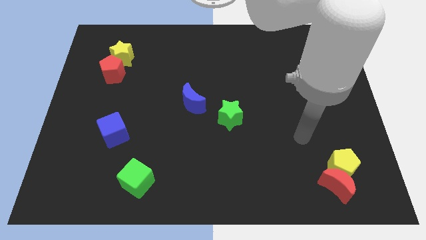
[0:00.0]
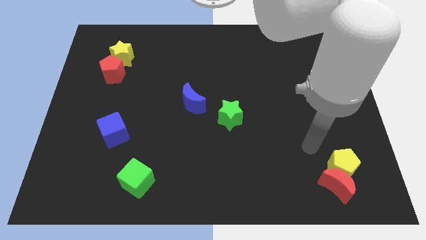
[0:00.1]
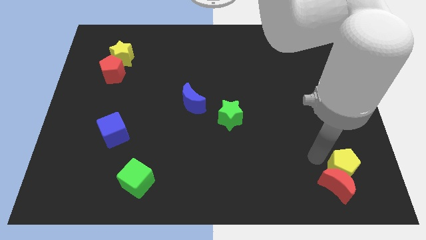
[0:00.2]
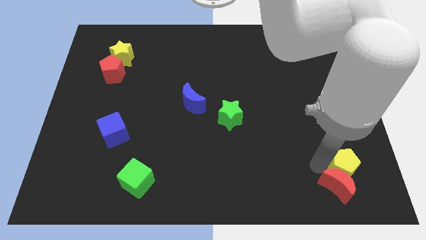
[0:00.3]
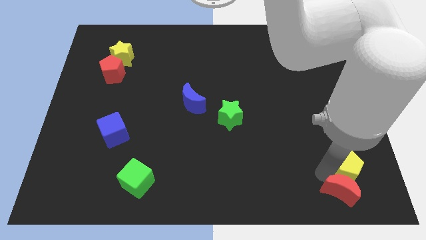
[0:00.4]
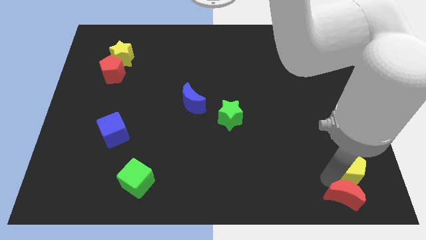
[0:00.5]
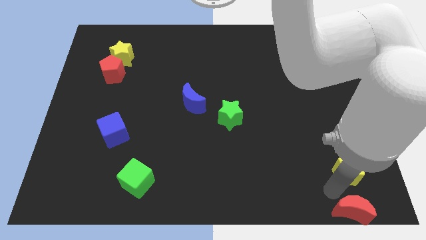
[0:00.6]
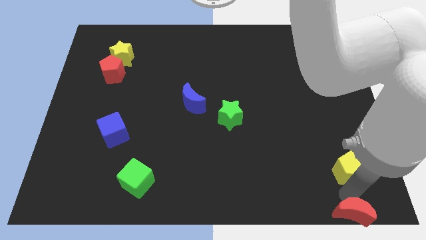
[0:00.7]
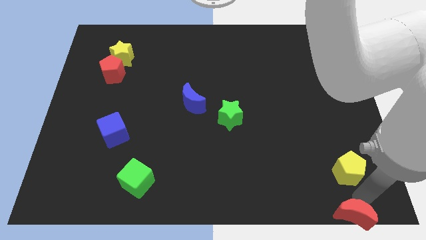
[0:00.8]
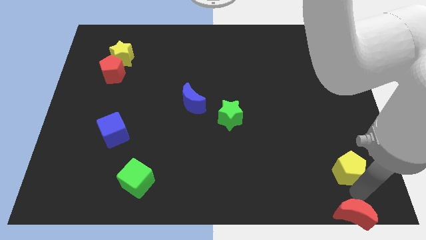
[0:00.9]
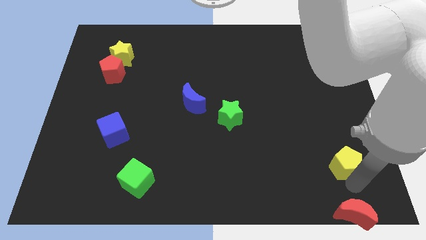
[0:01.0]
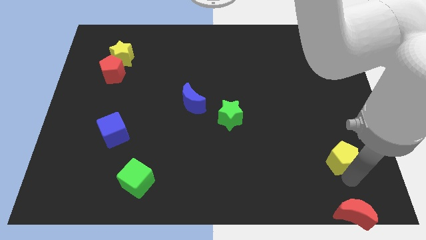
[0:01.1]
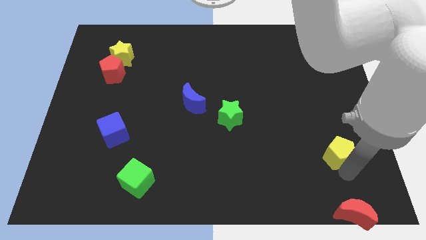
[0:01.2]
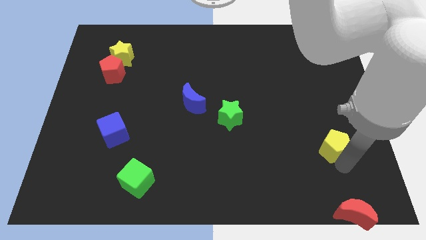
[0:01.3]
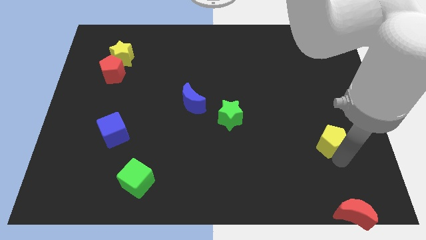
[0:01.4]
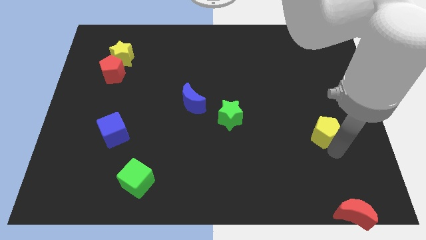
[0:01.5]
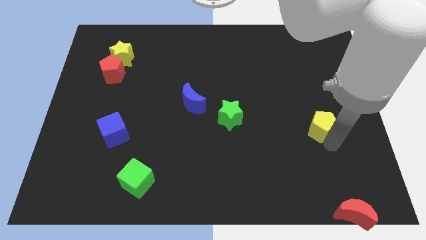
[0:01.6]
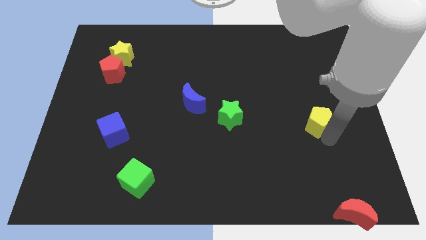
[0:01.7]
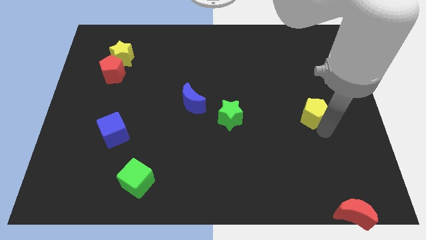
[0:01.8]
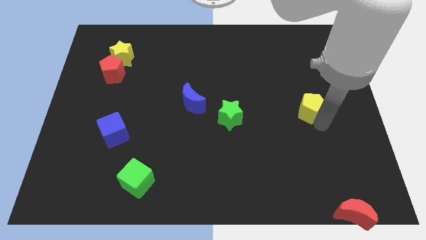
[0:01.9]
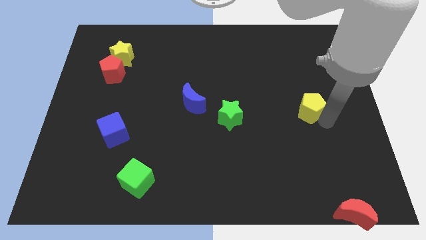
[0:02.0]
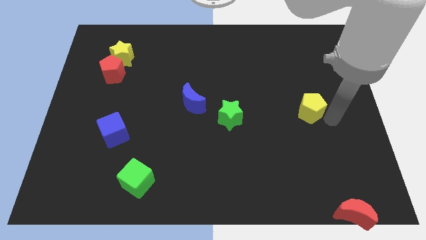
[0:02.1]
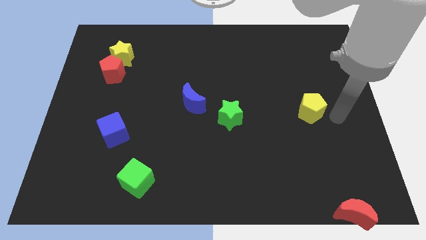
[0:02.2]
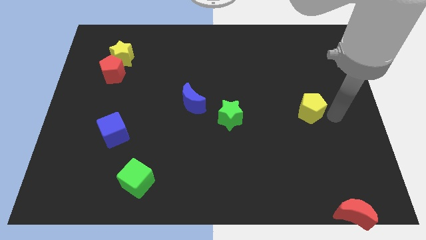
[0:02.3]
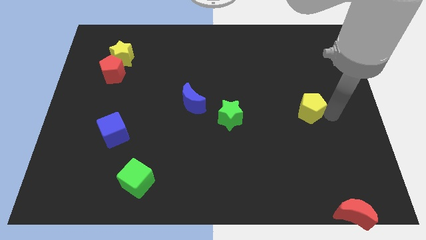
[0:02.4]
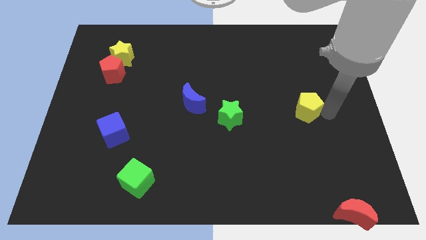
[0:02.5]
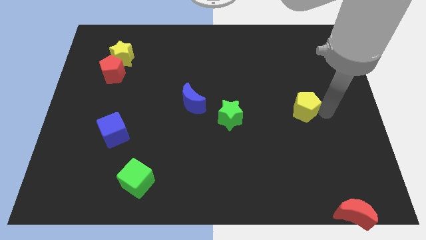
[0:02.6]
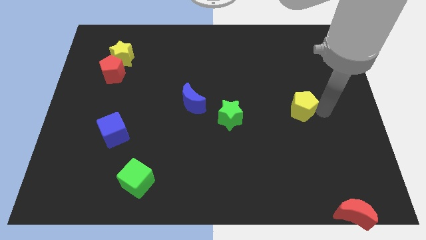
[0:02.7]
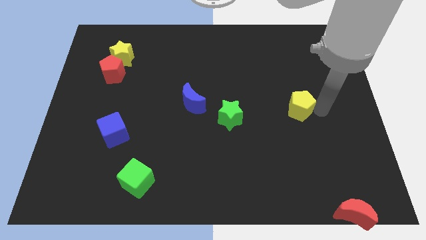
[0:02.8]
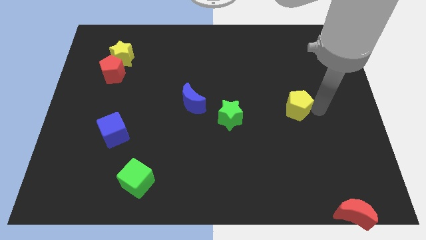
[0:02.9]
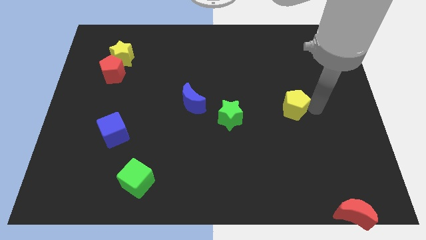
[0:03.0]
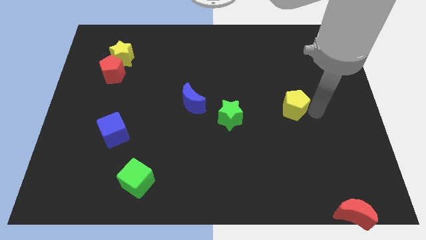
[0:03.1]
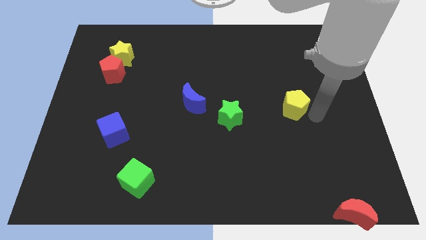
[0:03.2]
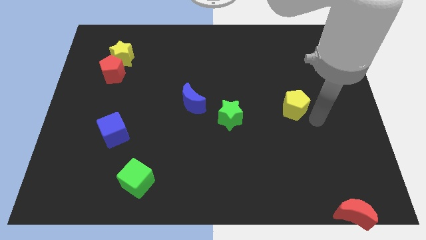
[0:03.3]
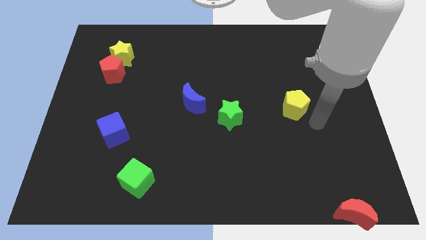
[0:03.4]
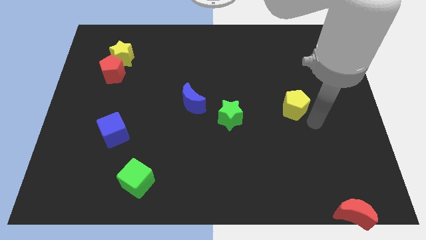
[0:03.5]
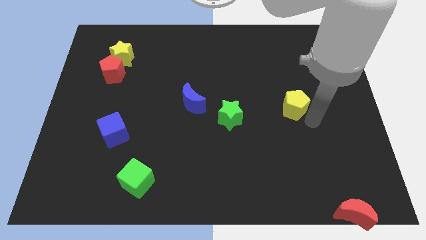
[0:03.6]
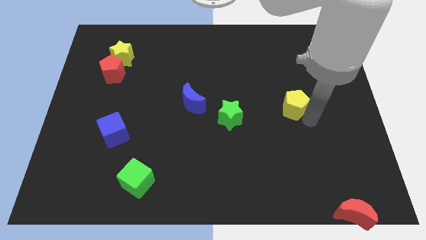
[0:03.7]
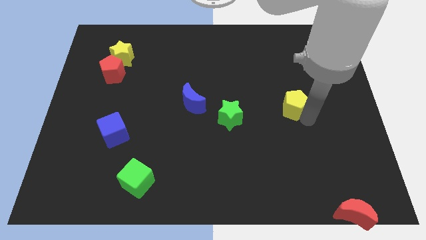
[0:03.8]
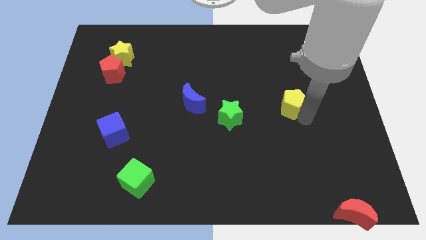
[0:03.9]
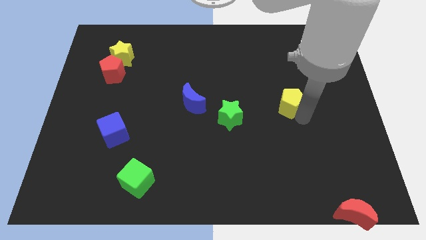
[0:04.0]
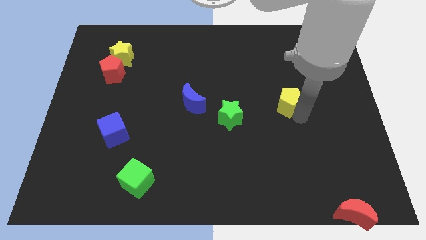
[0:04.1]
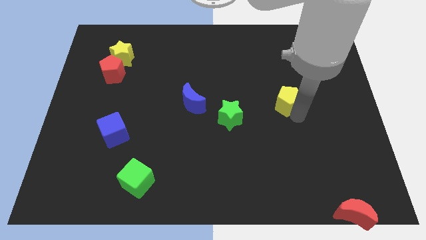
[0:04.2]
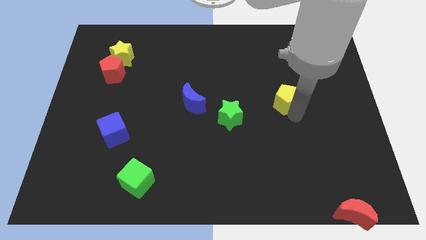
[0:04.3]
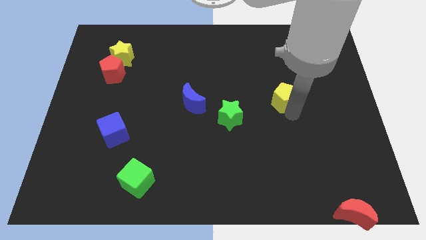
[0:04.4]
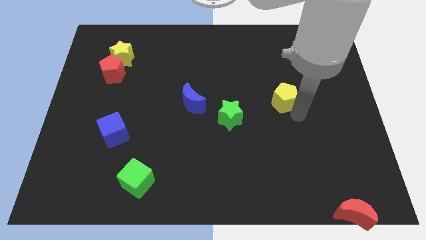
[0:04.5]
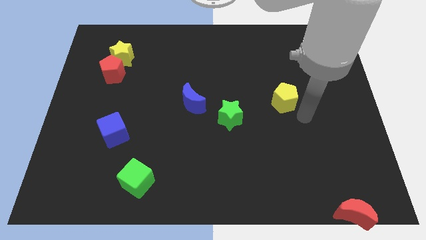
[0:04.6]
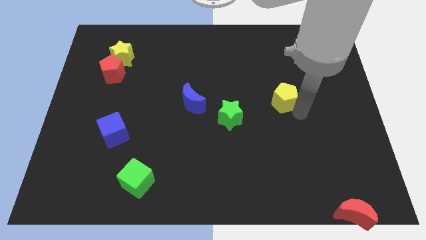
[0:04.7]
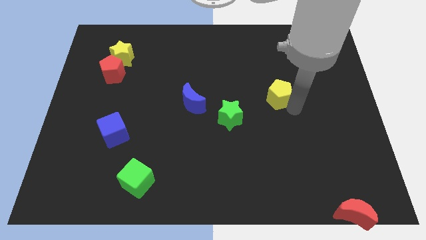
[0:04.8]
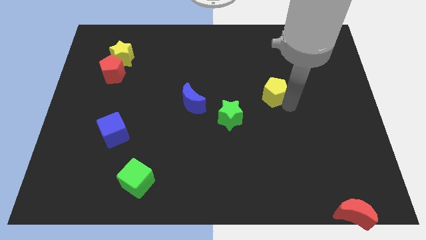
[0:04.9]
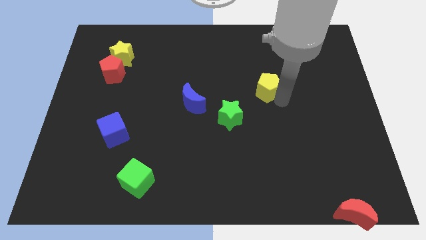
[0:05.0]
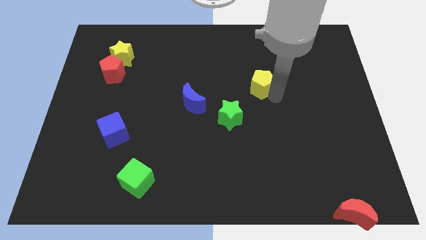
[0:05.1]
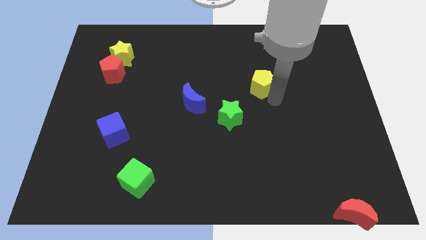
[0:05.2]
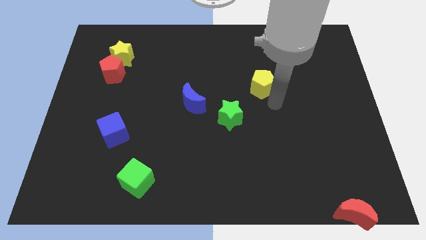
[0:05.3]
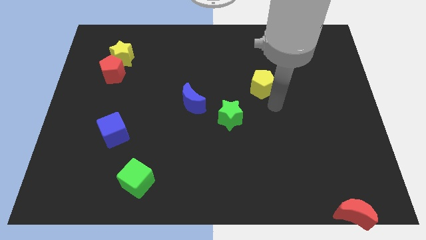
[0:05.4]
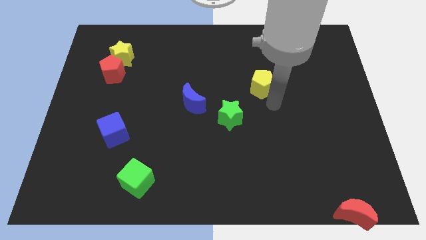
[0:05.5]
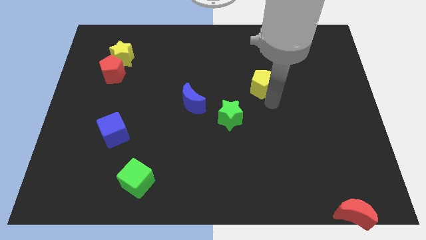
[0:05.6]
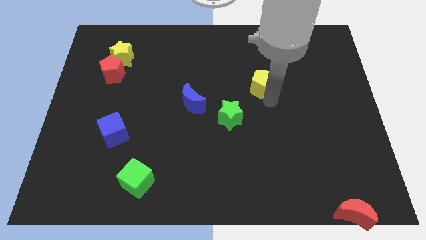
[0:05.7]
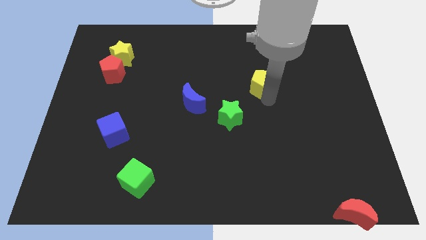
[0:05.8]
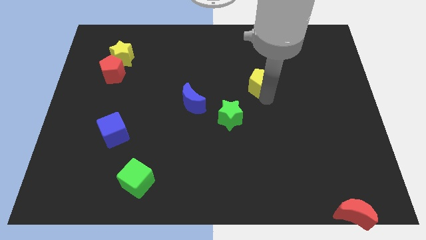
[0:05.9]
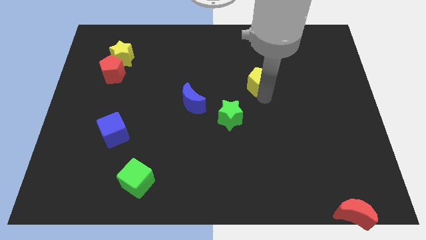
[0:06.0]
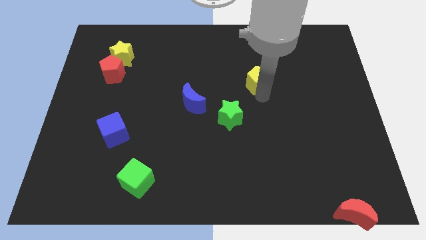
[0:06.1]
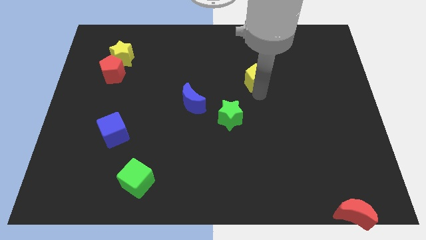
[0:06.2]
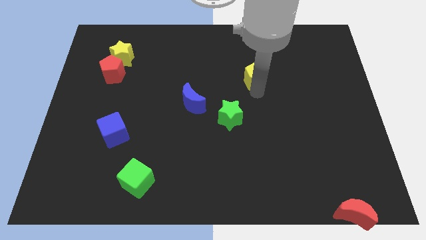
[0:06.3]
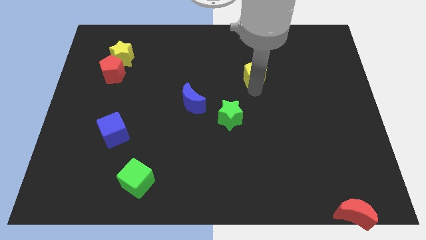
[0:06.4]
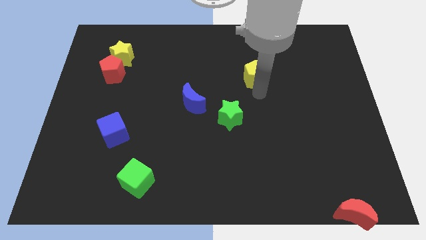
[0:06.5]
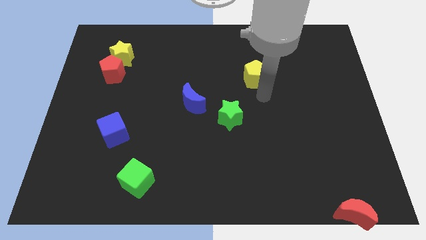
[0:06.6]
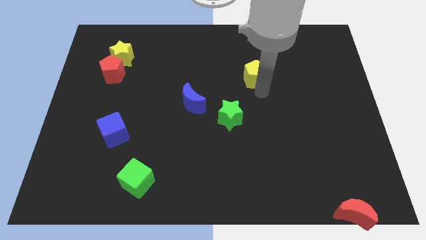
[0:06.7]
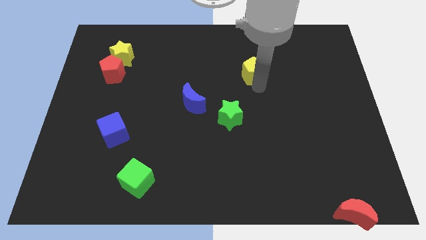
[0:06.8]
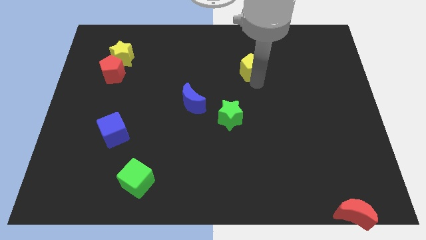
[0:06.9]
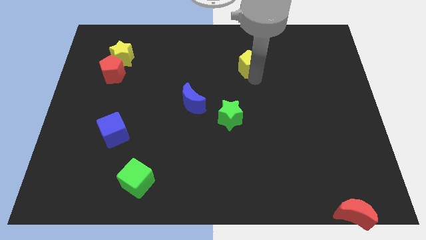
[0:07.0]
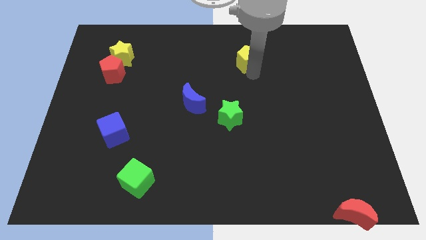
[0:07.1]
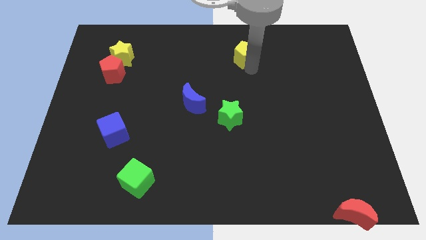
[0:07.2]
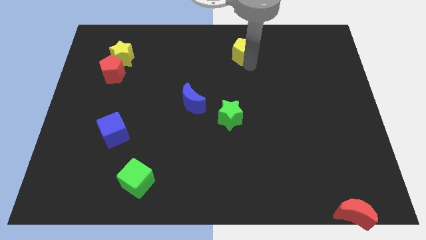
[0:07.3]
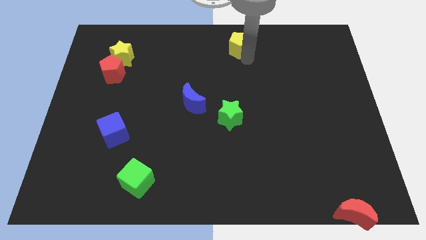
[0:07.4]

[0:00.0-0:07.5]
push the yellow pentagon to the towards your base
